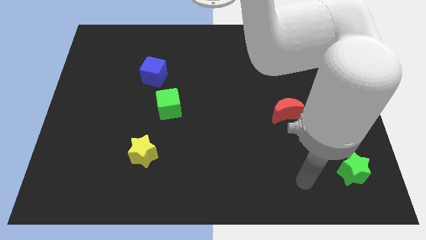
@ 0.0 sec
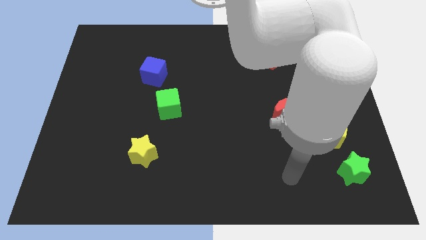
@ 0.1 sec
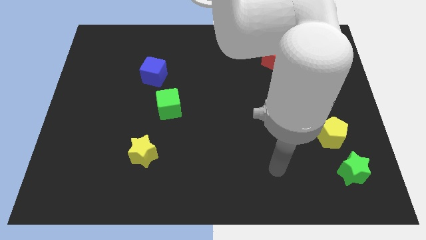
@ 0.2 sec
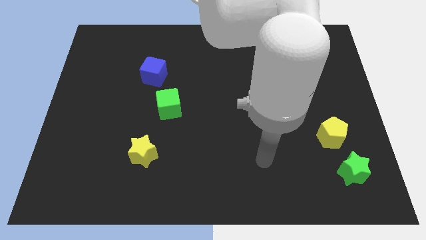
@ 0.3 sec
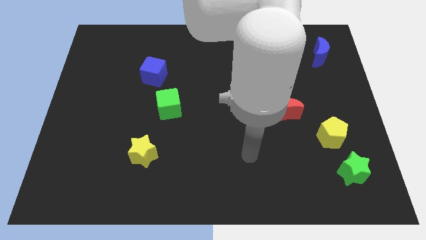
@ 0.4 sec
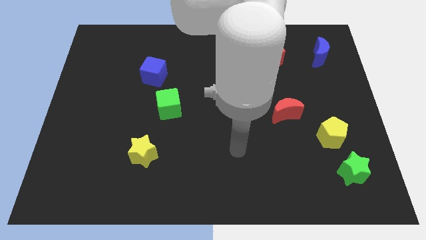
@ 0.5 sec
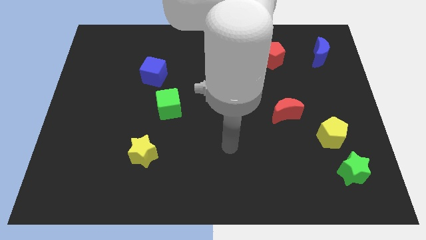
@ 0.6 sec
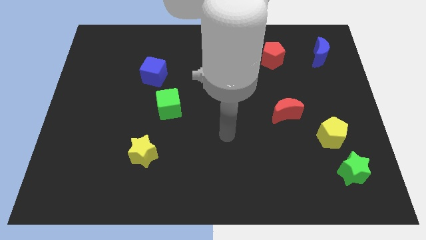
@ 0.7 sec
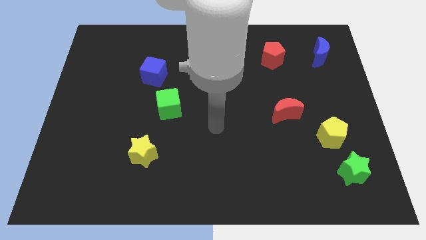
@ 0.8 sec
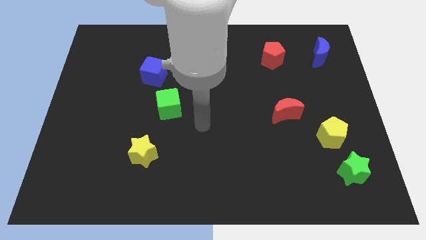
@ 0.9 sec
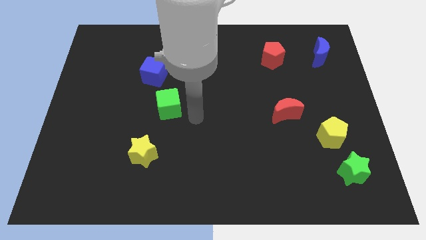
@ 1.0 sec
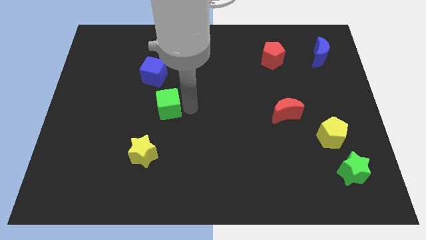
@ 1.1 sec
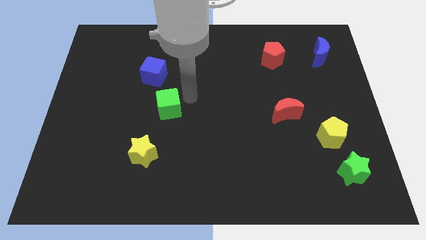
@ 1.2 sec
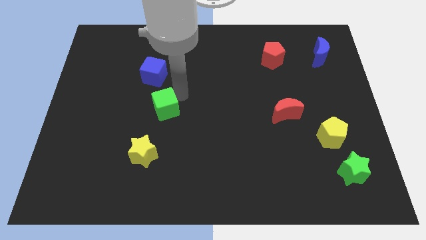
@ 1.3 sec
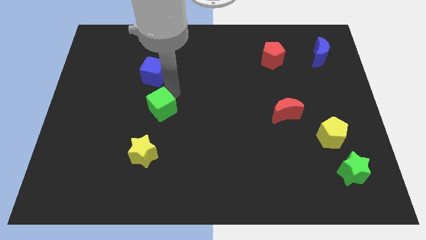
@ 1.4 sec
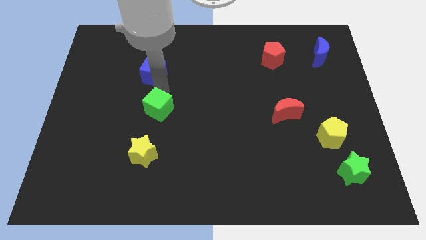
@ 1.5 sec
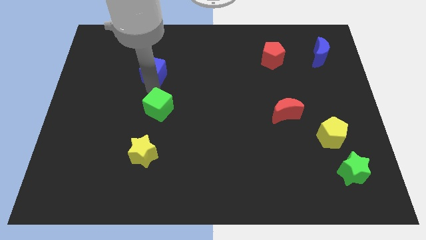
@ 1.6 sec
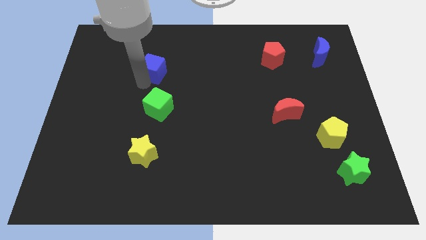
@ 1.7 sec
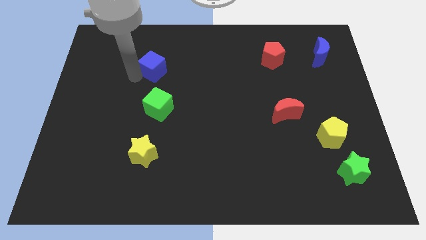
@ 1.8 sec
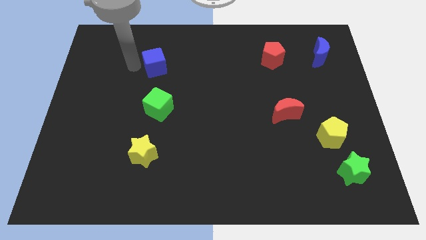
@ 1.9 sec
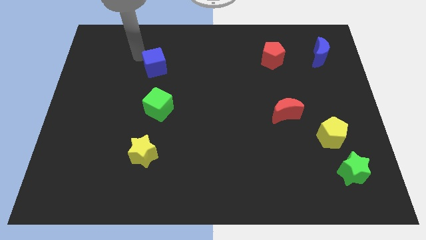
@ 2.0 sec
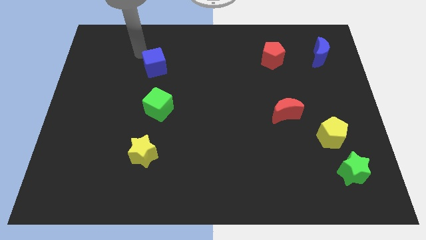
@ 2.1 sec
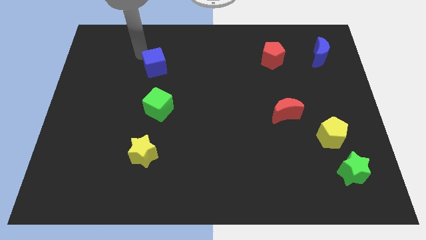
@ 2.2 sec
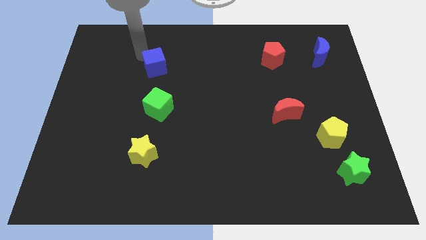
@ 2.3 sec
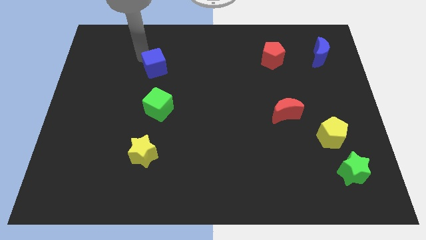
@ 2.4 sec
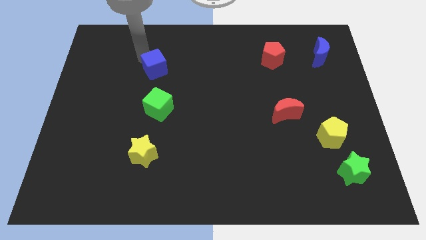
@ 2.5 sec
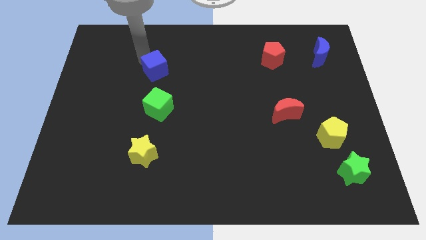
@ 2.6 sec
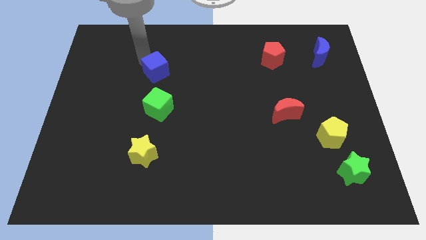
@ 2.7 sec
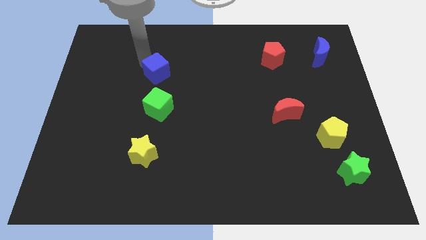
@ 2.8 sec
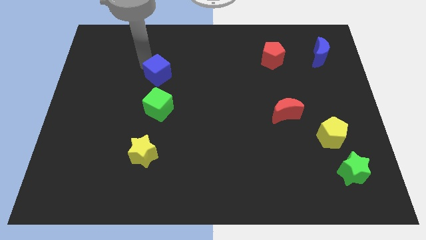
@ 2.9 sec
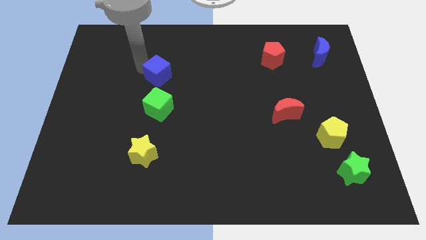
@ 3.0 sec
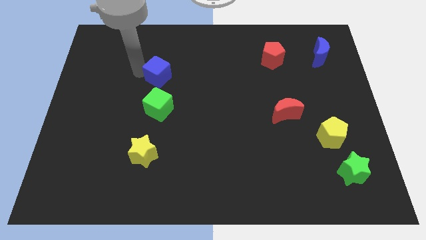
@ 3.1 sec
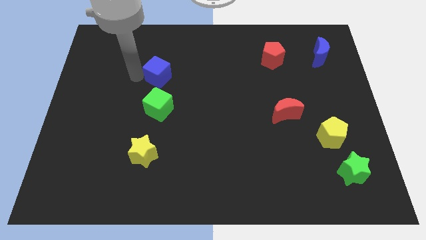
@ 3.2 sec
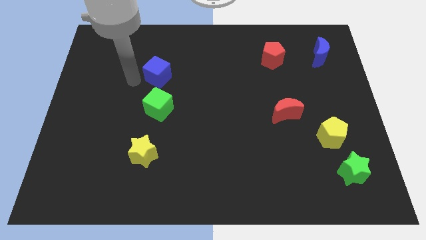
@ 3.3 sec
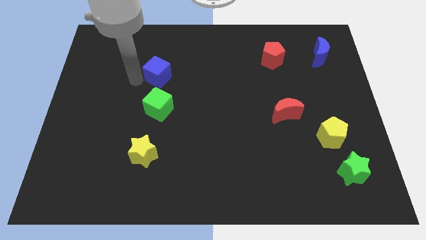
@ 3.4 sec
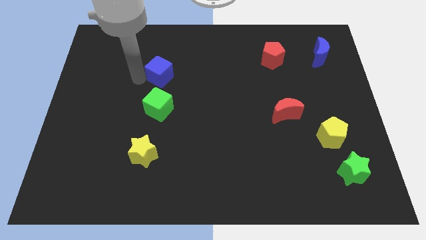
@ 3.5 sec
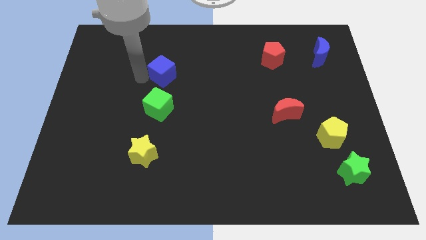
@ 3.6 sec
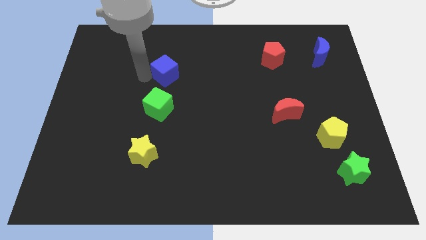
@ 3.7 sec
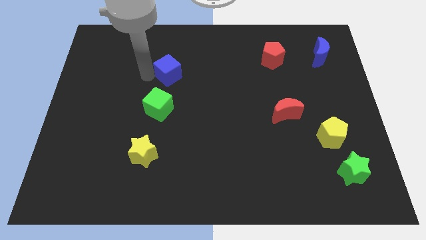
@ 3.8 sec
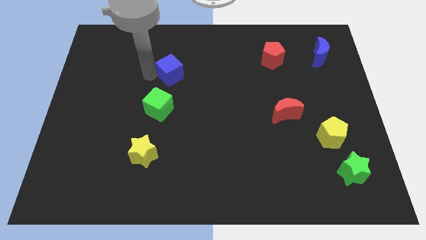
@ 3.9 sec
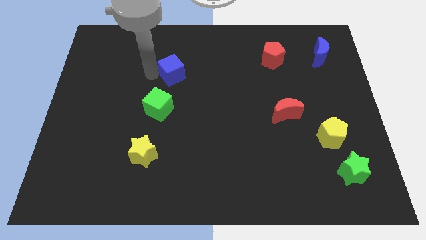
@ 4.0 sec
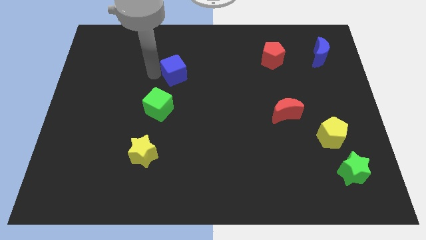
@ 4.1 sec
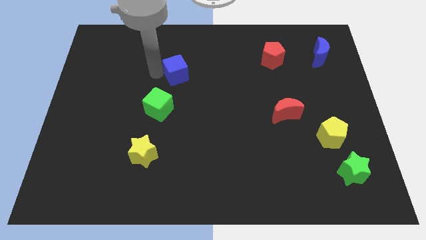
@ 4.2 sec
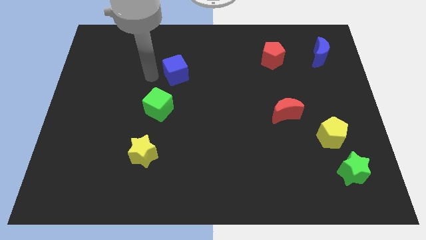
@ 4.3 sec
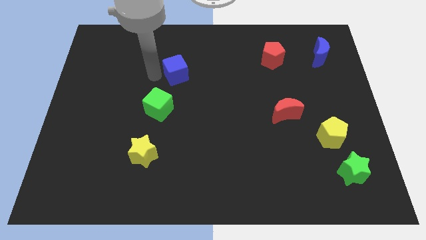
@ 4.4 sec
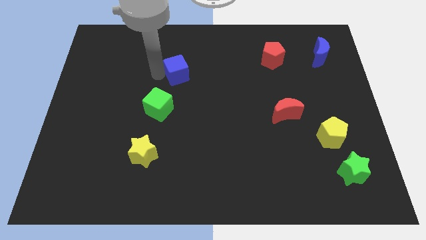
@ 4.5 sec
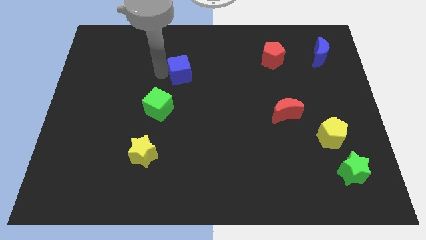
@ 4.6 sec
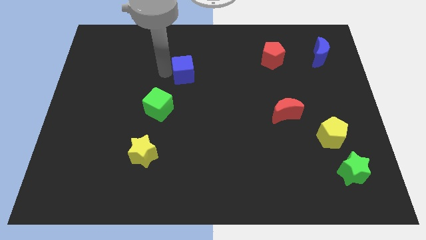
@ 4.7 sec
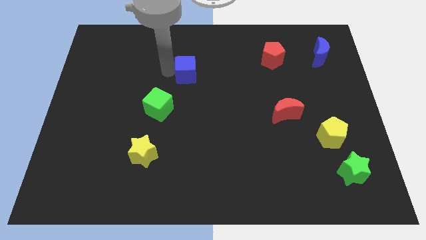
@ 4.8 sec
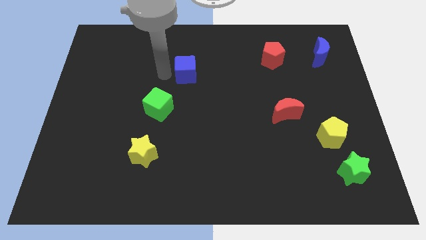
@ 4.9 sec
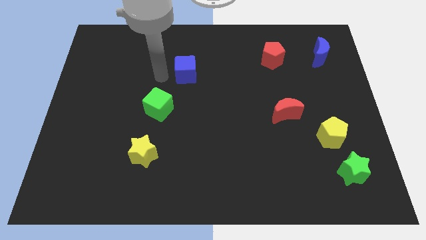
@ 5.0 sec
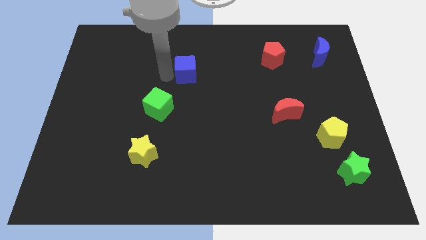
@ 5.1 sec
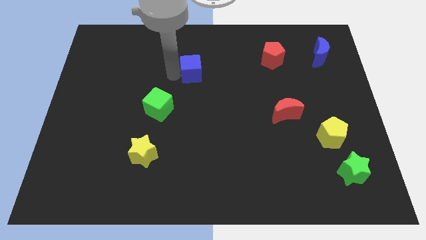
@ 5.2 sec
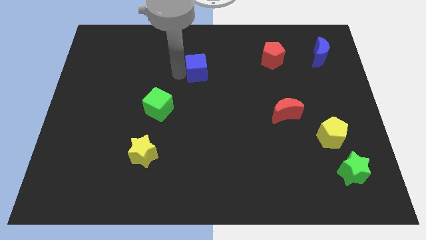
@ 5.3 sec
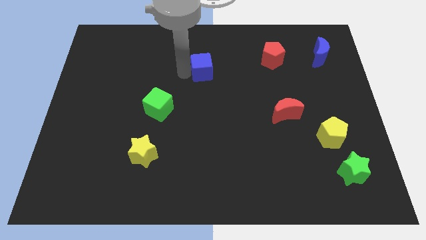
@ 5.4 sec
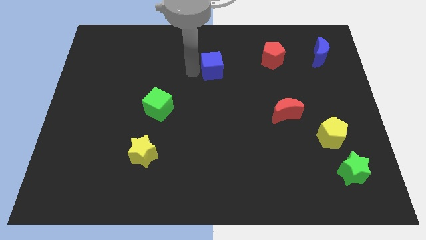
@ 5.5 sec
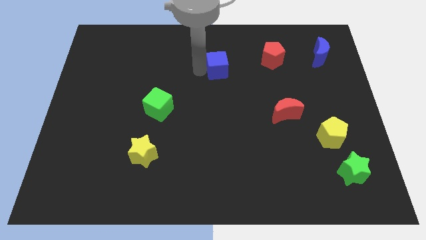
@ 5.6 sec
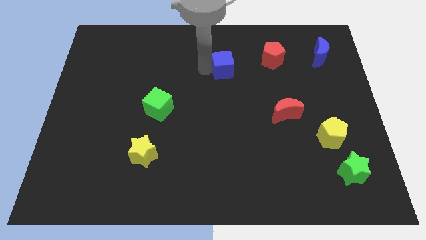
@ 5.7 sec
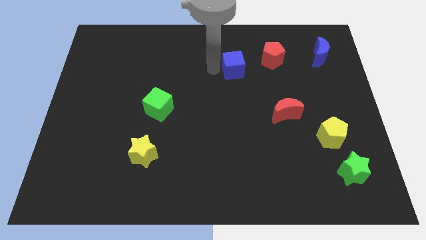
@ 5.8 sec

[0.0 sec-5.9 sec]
push the blue cube right

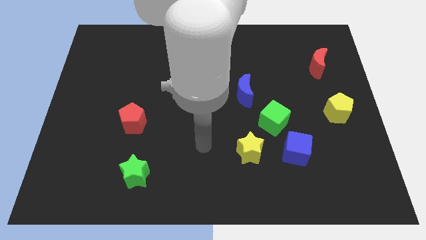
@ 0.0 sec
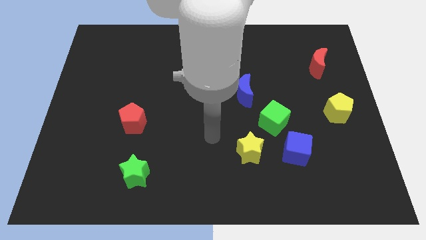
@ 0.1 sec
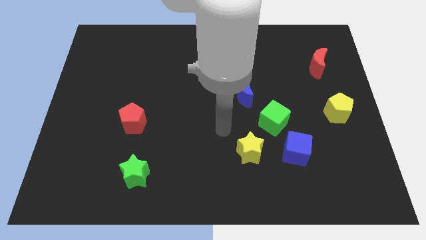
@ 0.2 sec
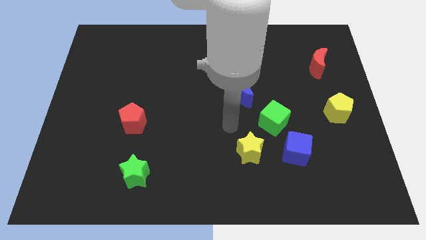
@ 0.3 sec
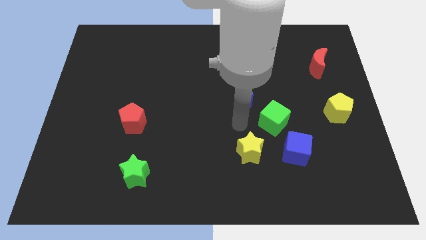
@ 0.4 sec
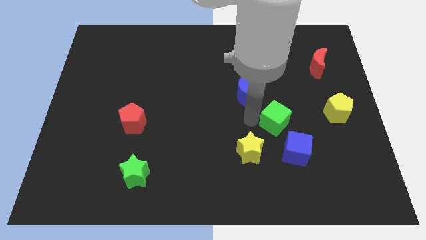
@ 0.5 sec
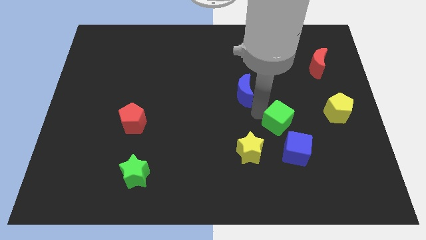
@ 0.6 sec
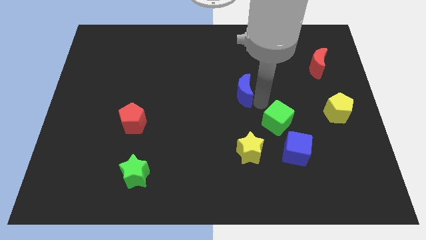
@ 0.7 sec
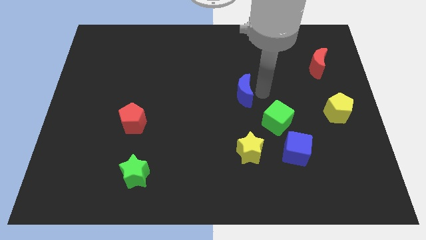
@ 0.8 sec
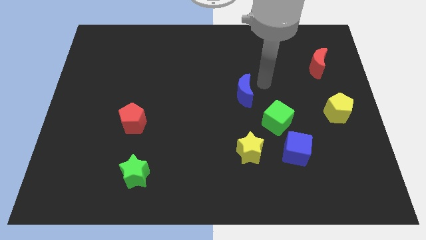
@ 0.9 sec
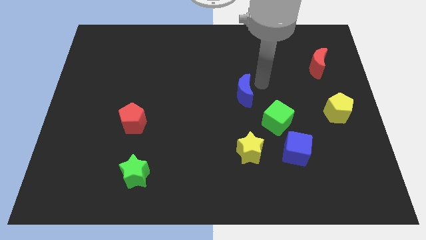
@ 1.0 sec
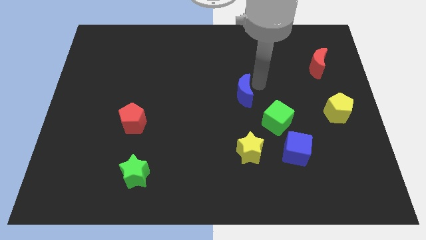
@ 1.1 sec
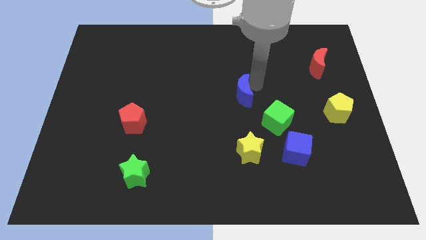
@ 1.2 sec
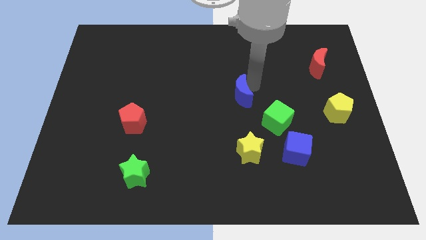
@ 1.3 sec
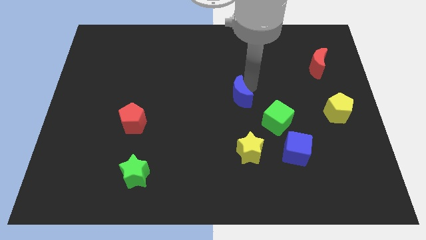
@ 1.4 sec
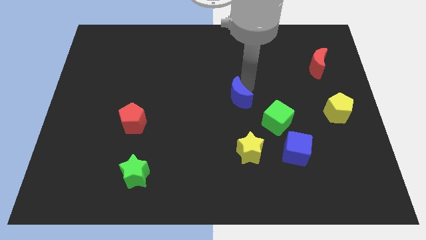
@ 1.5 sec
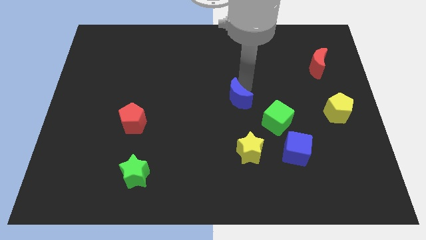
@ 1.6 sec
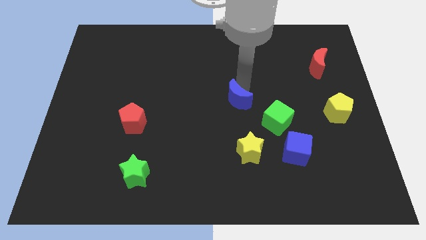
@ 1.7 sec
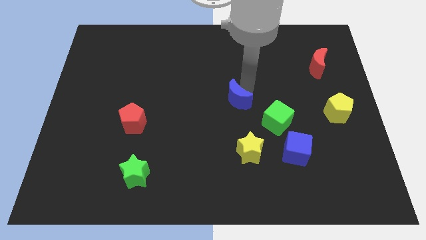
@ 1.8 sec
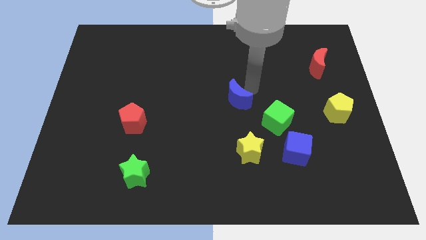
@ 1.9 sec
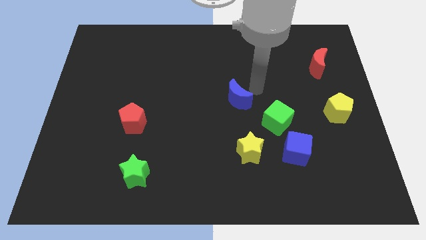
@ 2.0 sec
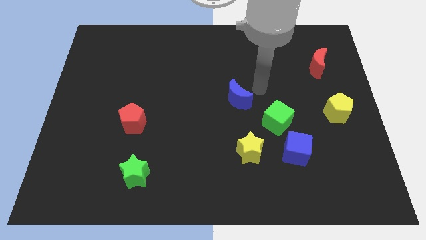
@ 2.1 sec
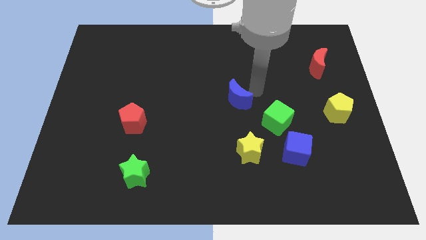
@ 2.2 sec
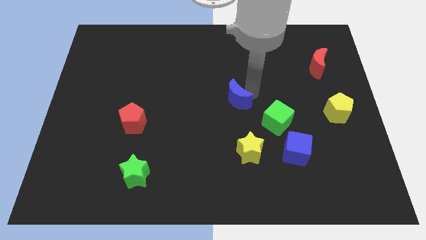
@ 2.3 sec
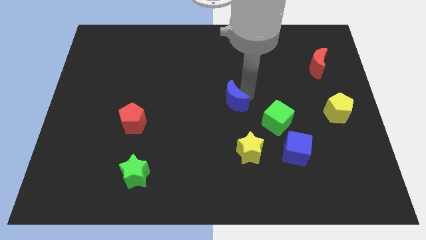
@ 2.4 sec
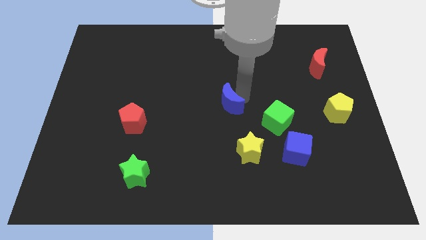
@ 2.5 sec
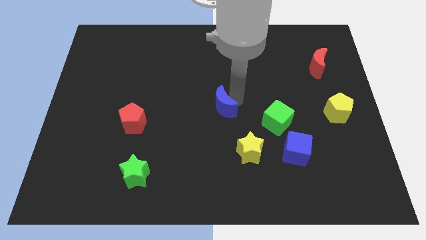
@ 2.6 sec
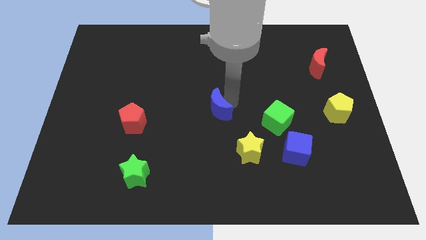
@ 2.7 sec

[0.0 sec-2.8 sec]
slide the blue moon a bit down and then left
